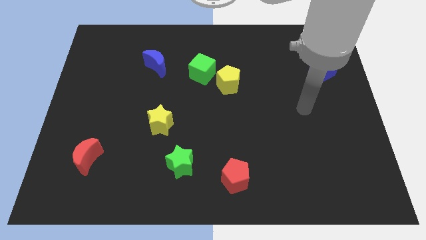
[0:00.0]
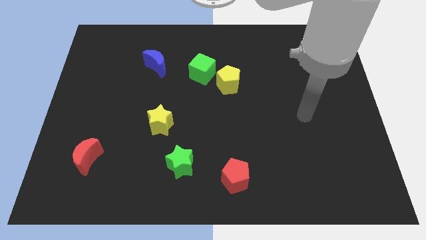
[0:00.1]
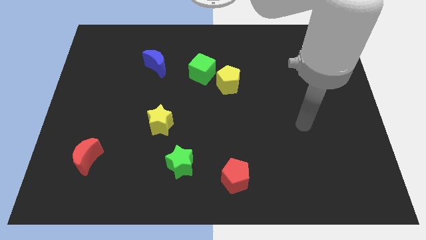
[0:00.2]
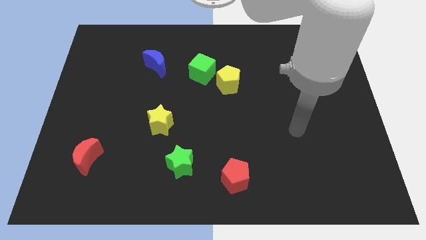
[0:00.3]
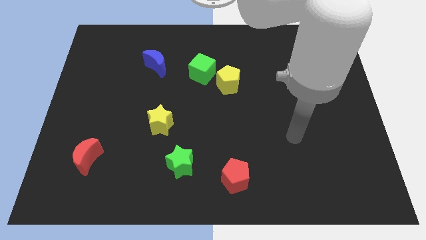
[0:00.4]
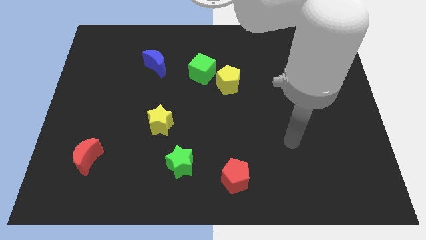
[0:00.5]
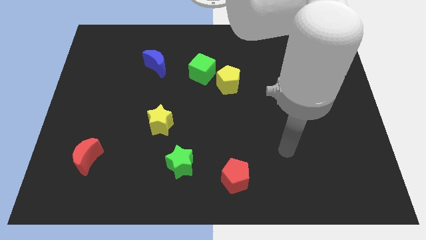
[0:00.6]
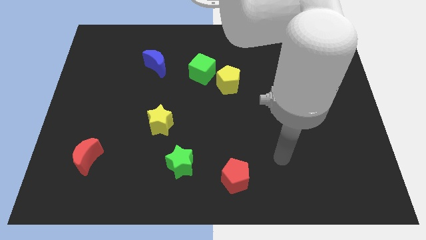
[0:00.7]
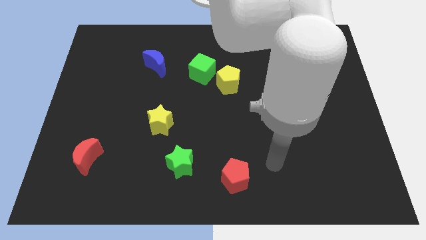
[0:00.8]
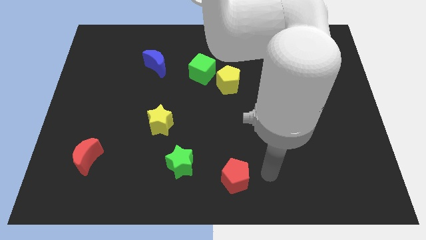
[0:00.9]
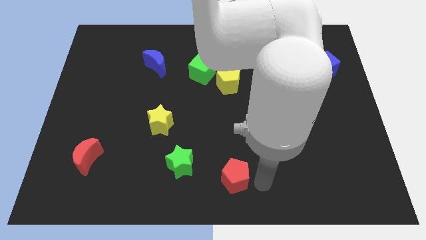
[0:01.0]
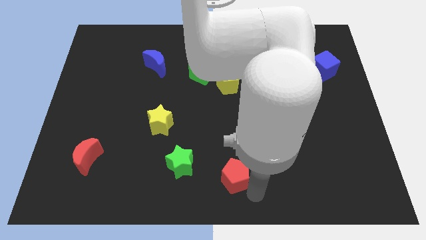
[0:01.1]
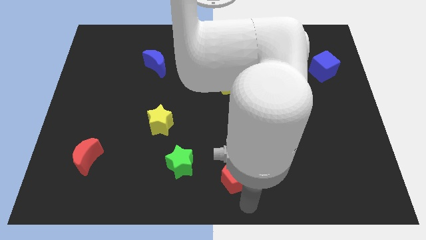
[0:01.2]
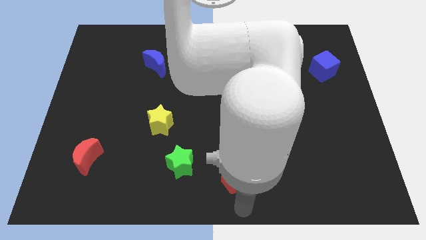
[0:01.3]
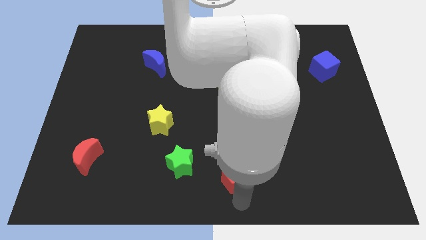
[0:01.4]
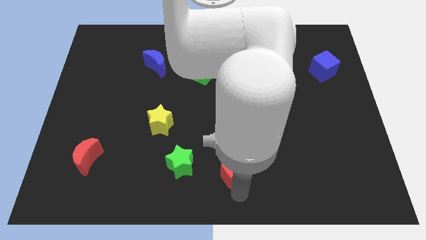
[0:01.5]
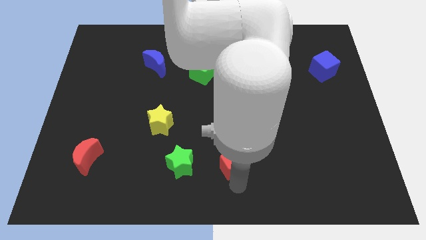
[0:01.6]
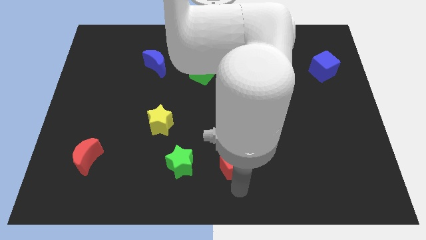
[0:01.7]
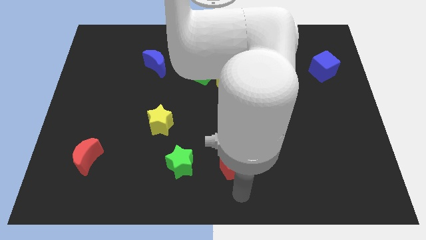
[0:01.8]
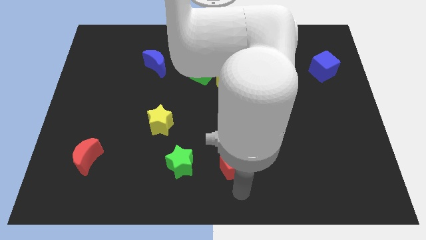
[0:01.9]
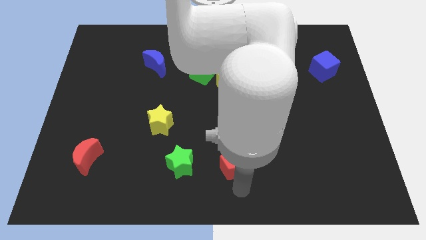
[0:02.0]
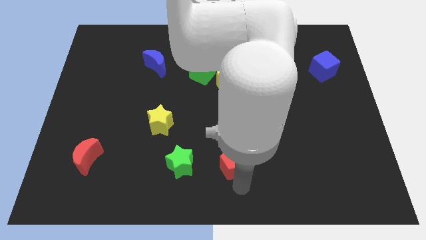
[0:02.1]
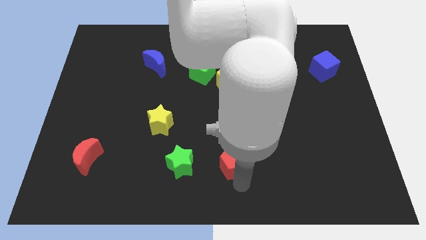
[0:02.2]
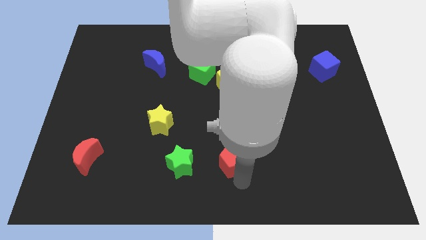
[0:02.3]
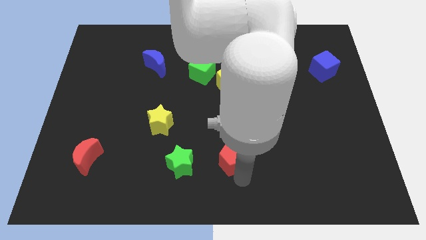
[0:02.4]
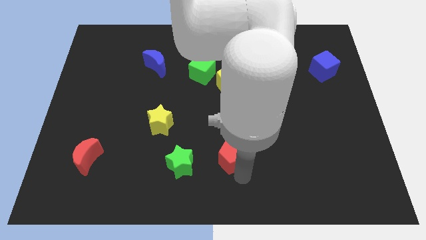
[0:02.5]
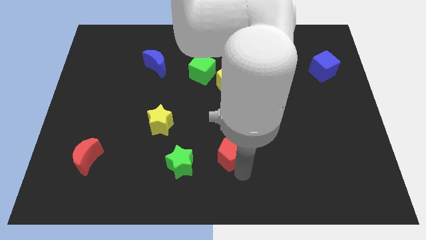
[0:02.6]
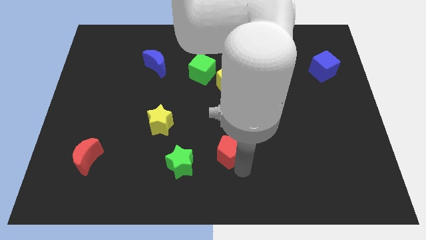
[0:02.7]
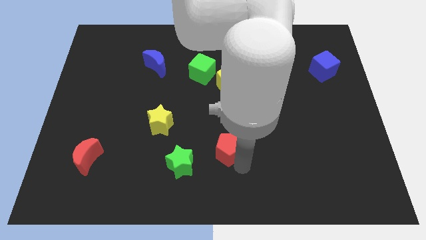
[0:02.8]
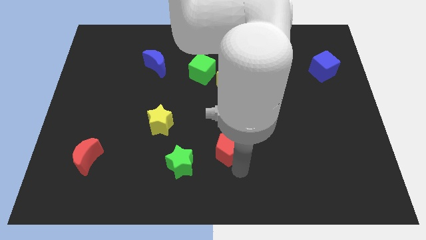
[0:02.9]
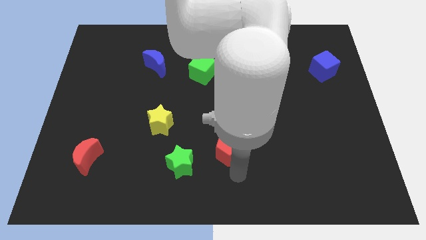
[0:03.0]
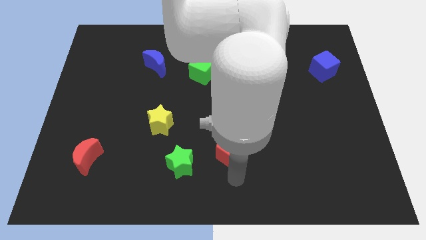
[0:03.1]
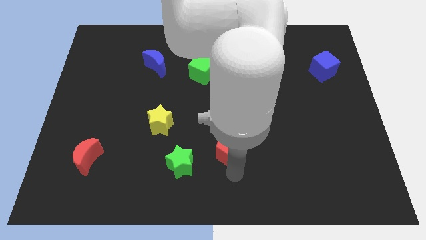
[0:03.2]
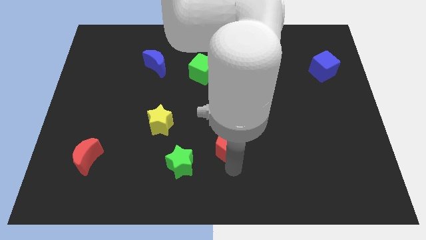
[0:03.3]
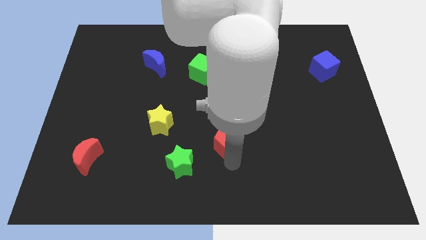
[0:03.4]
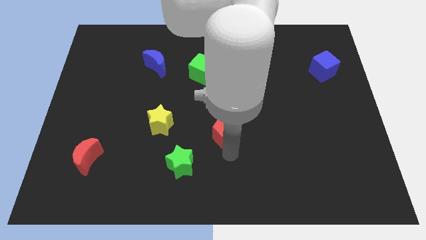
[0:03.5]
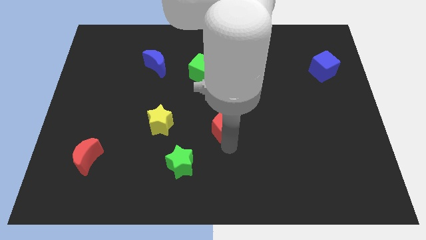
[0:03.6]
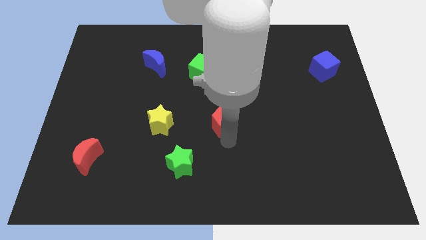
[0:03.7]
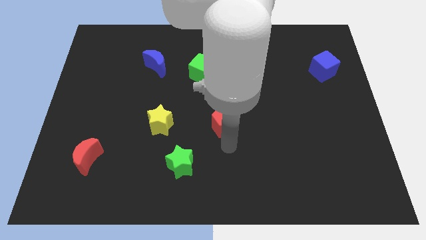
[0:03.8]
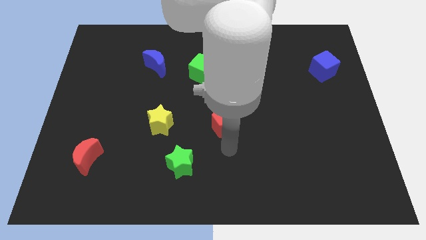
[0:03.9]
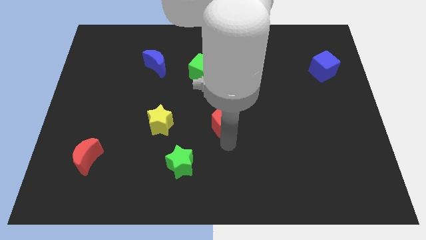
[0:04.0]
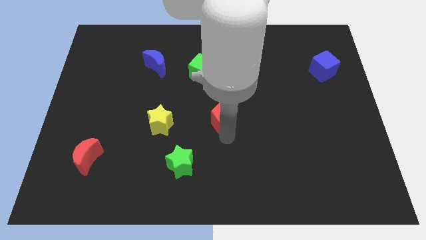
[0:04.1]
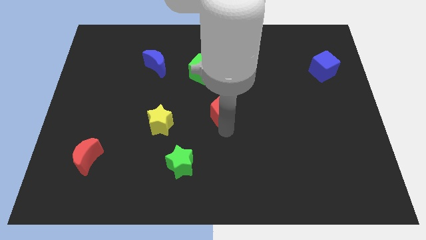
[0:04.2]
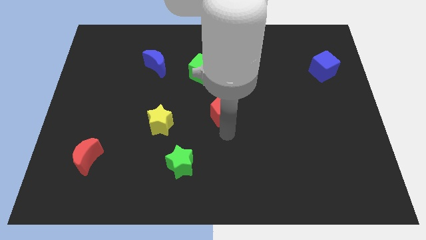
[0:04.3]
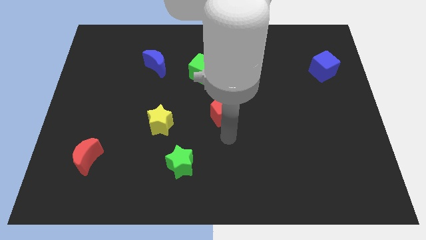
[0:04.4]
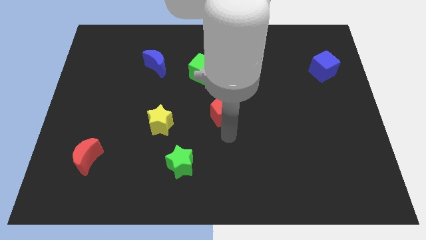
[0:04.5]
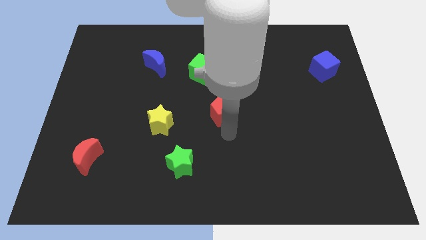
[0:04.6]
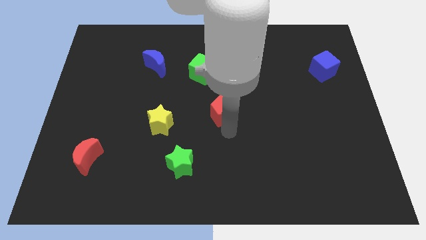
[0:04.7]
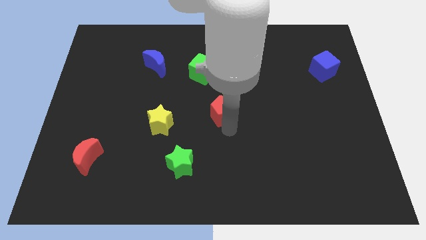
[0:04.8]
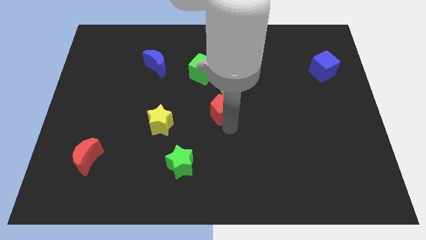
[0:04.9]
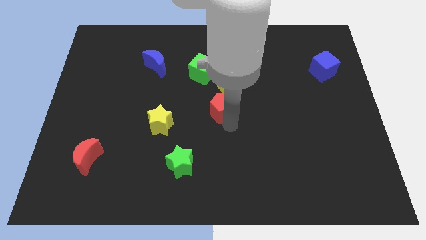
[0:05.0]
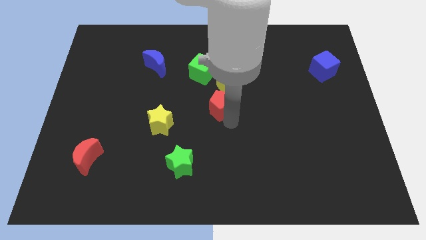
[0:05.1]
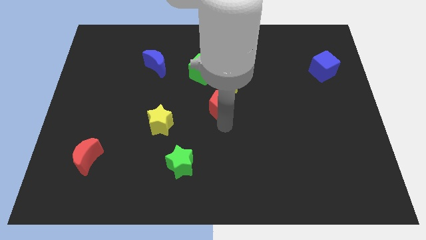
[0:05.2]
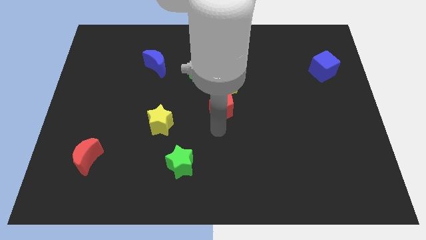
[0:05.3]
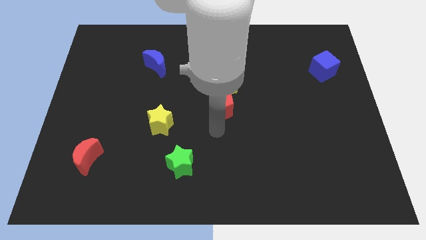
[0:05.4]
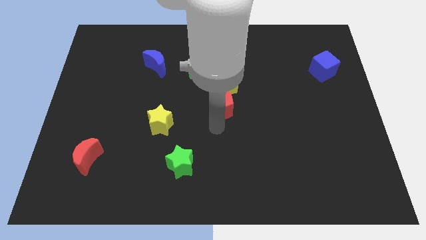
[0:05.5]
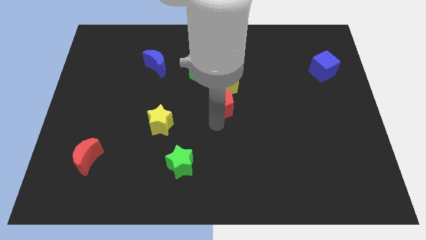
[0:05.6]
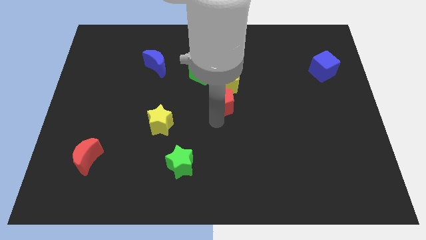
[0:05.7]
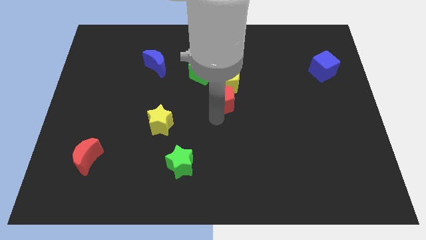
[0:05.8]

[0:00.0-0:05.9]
put the red pentagon next to the yellow pentagon

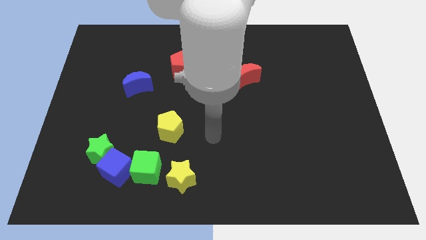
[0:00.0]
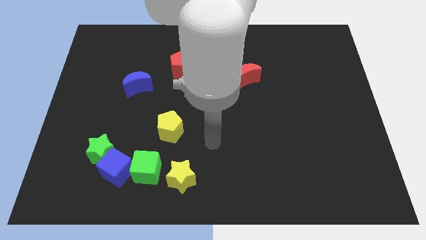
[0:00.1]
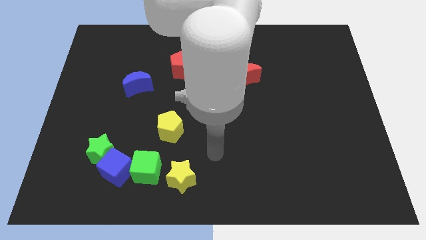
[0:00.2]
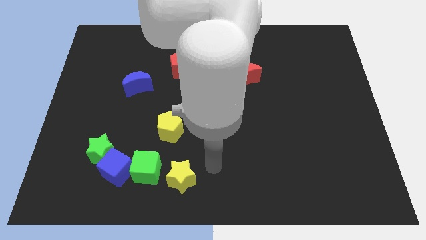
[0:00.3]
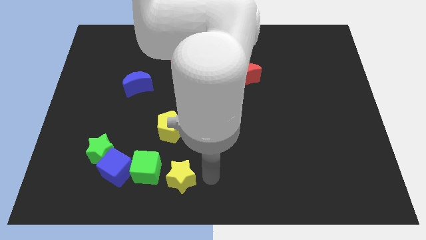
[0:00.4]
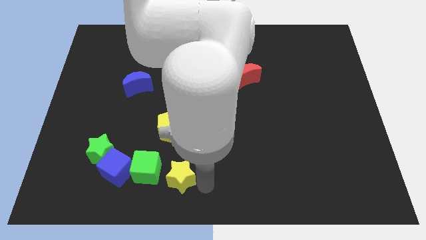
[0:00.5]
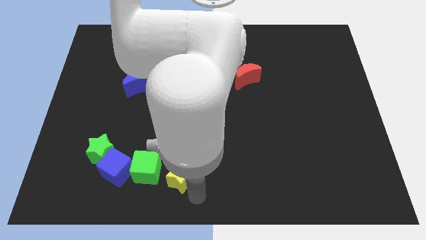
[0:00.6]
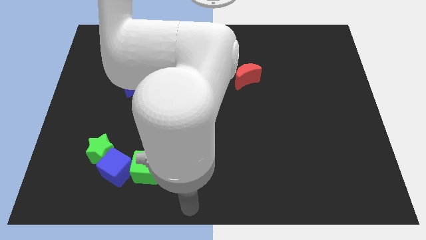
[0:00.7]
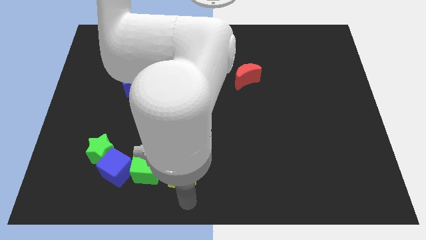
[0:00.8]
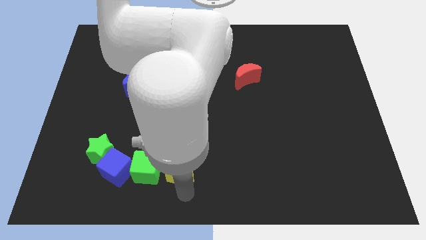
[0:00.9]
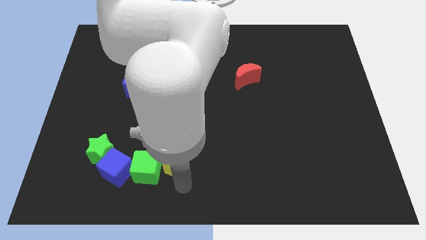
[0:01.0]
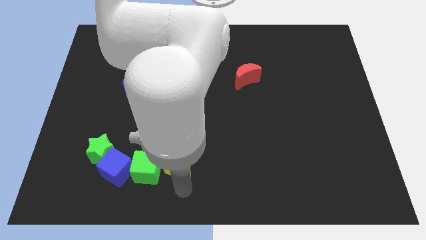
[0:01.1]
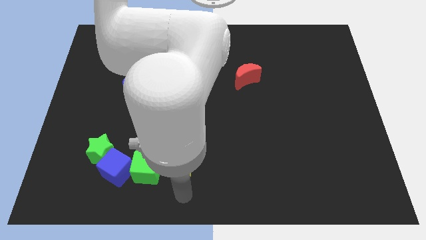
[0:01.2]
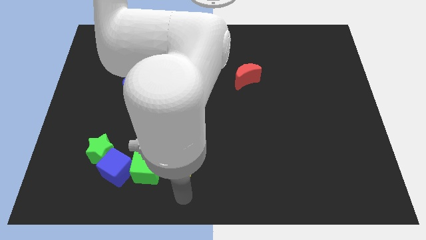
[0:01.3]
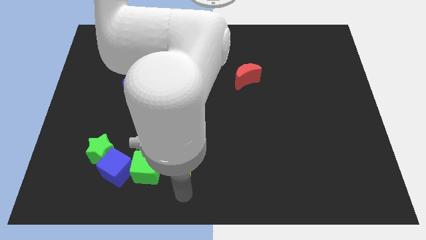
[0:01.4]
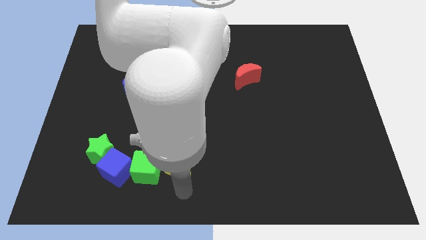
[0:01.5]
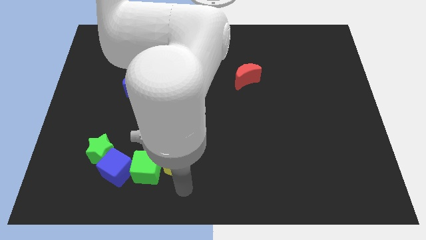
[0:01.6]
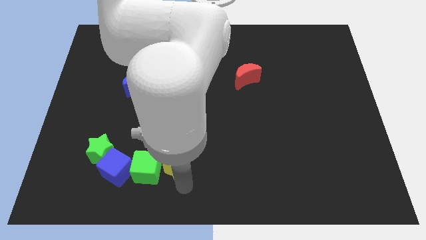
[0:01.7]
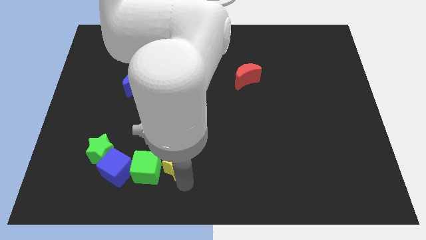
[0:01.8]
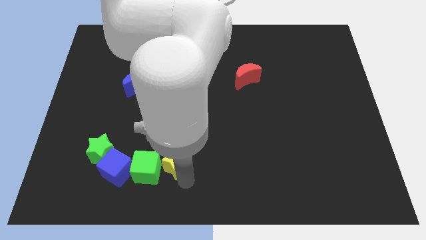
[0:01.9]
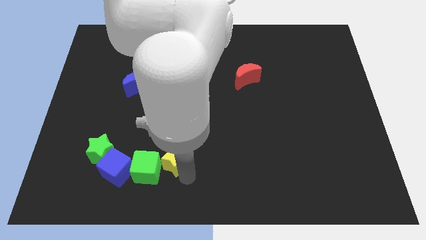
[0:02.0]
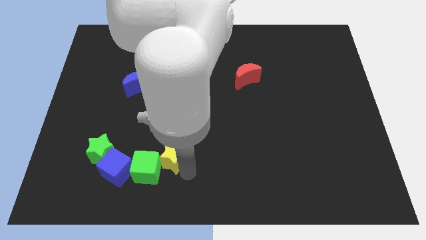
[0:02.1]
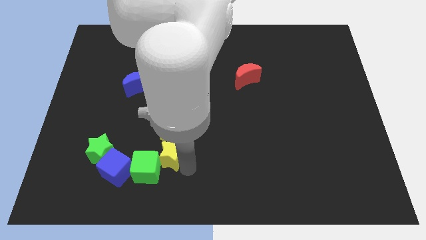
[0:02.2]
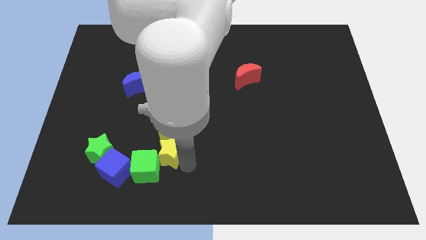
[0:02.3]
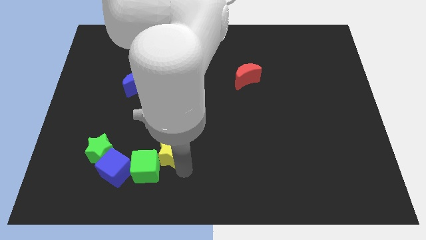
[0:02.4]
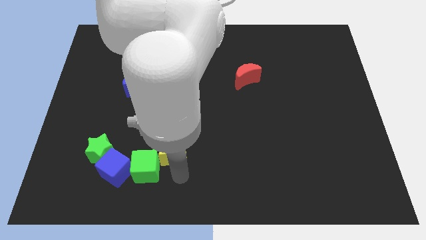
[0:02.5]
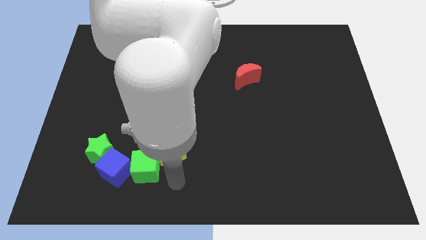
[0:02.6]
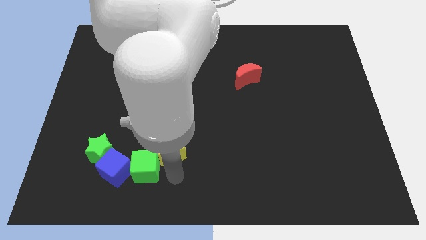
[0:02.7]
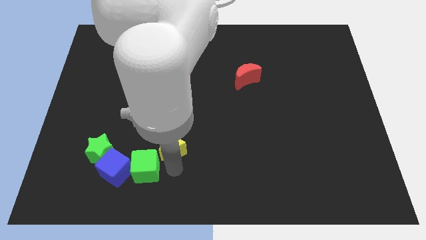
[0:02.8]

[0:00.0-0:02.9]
move the yellow star towards the yellow pentagon
